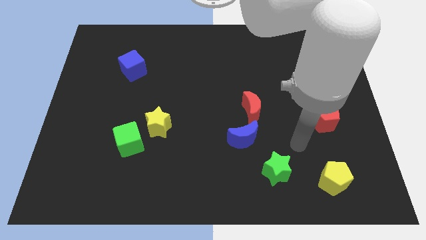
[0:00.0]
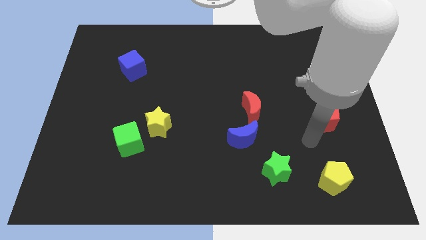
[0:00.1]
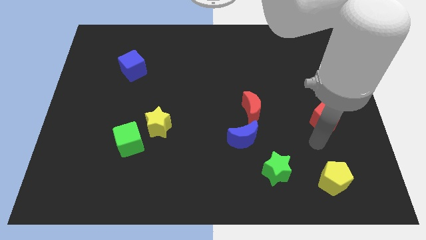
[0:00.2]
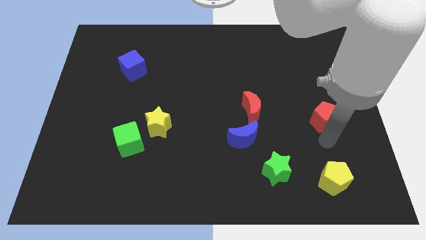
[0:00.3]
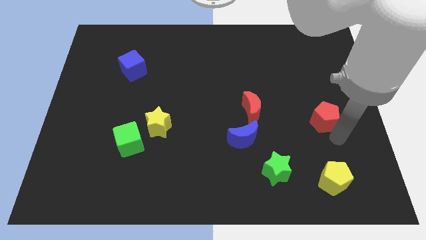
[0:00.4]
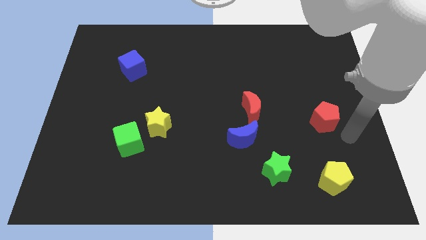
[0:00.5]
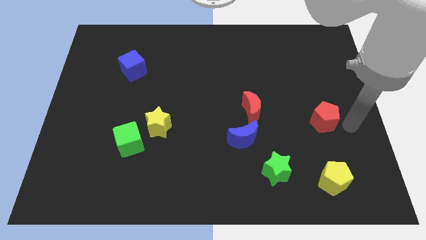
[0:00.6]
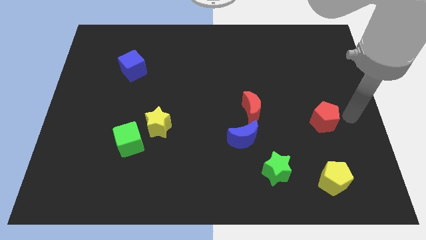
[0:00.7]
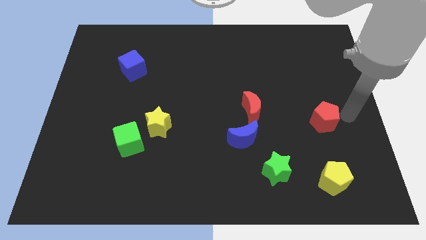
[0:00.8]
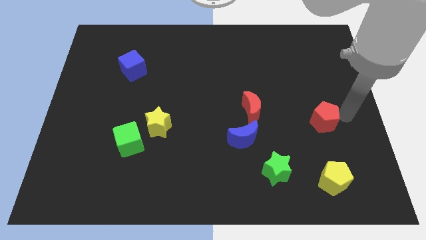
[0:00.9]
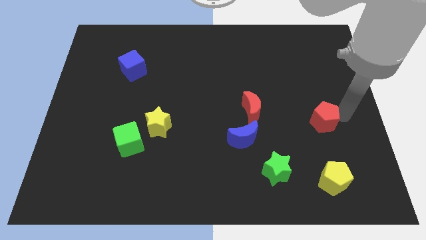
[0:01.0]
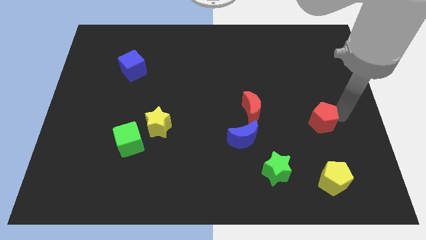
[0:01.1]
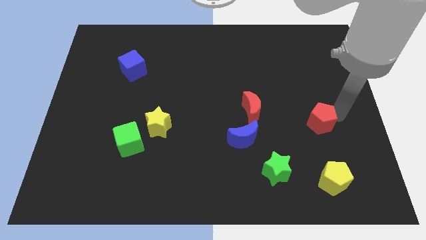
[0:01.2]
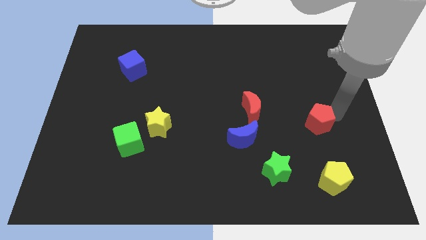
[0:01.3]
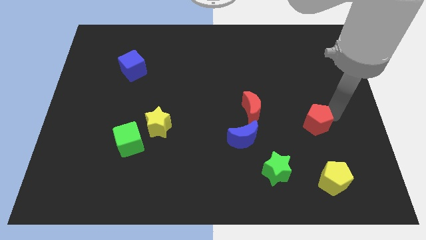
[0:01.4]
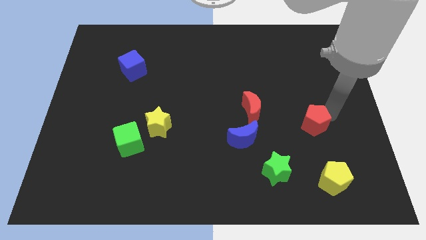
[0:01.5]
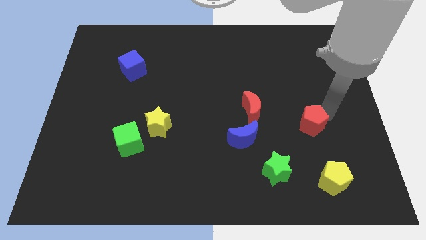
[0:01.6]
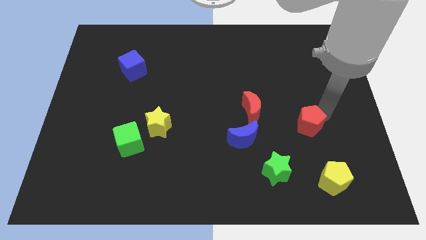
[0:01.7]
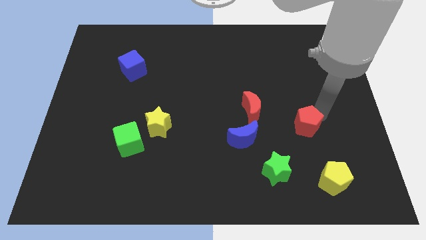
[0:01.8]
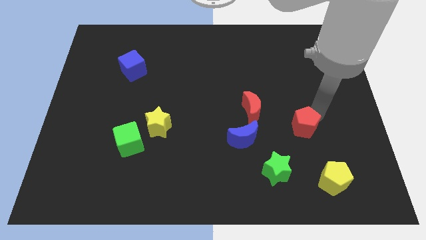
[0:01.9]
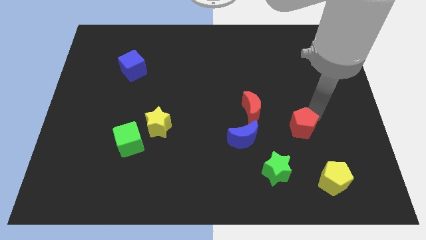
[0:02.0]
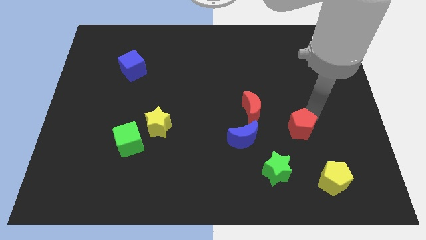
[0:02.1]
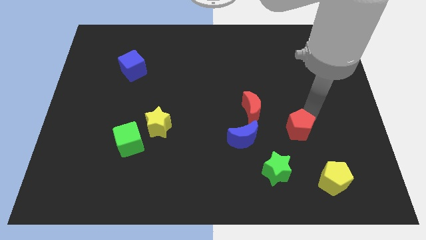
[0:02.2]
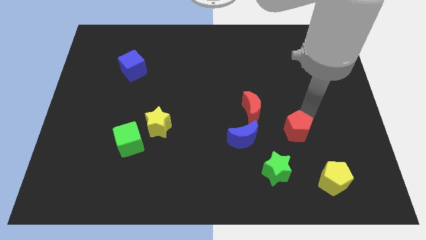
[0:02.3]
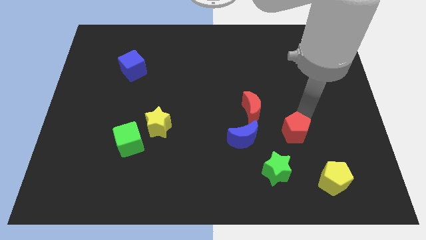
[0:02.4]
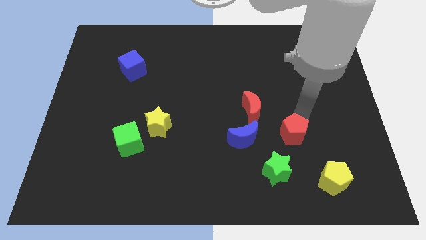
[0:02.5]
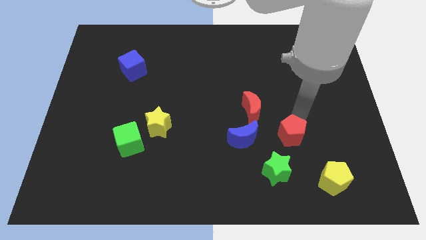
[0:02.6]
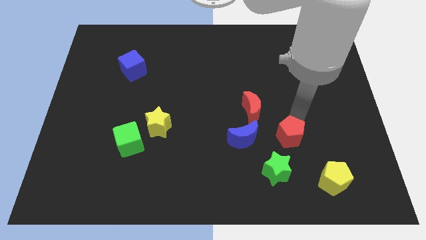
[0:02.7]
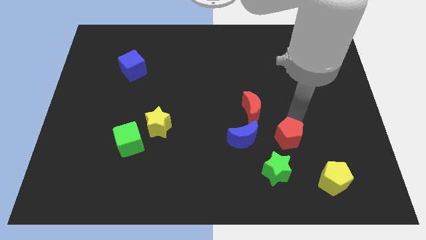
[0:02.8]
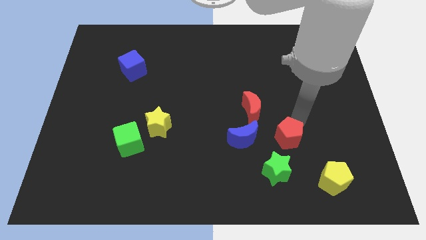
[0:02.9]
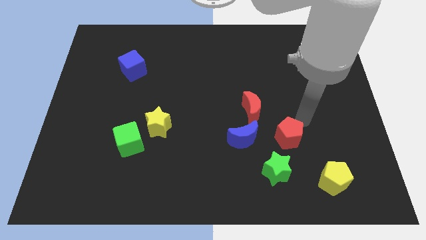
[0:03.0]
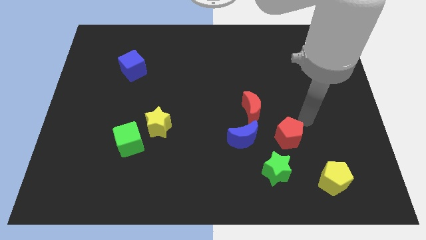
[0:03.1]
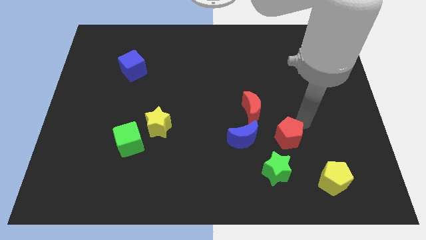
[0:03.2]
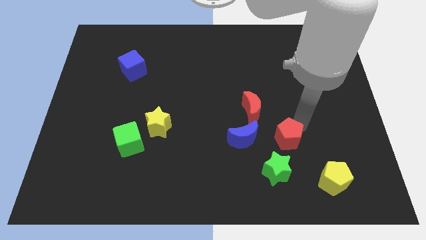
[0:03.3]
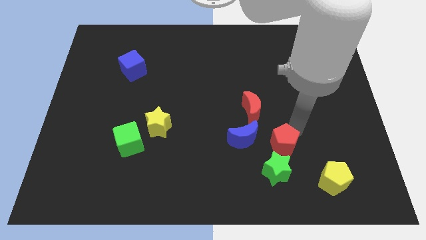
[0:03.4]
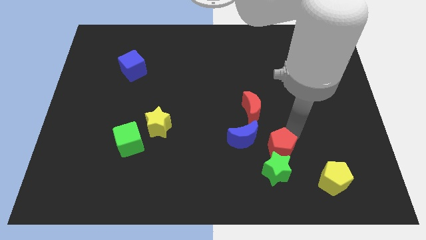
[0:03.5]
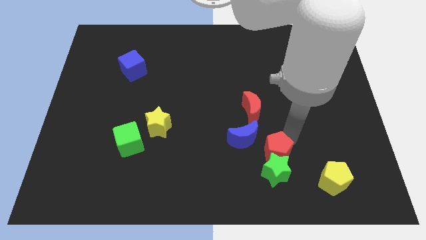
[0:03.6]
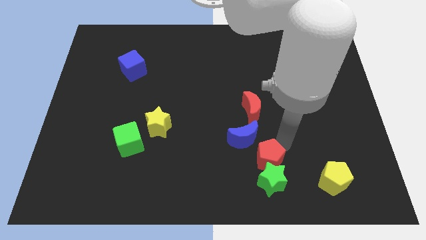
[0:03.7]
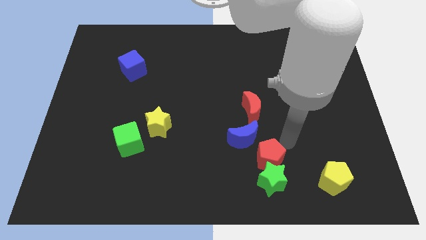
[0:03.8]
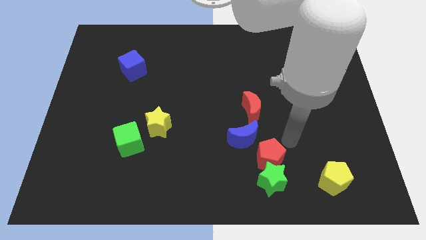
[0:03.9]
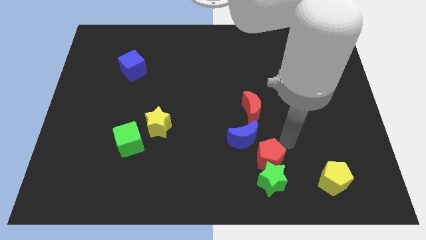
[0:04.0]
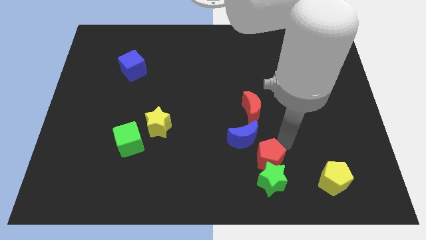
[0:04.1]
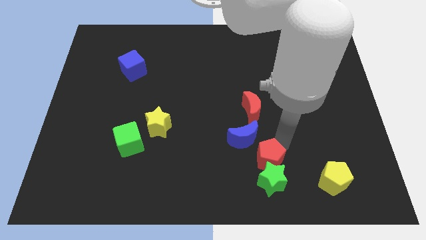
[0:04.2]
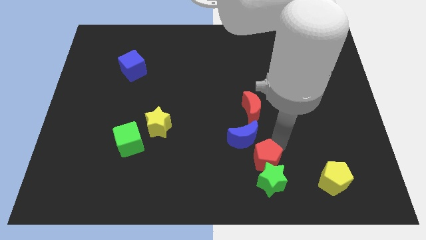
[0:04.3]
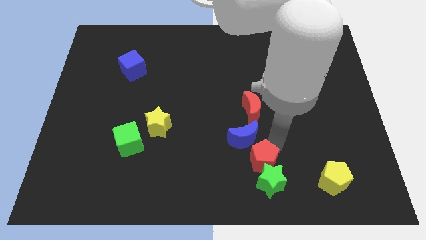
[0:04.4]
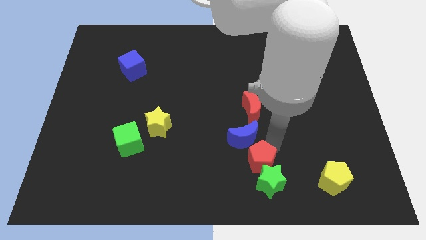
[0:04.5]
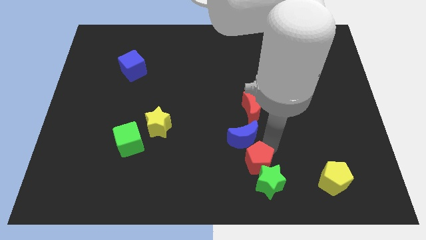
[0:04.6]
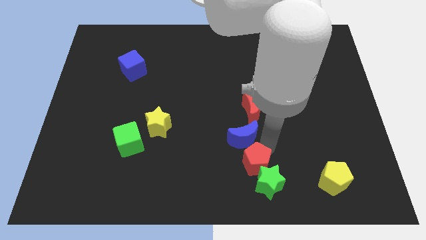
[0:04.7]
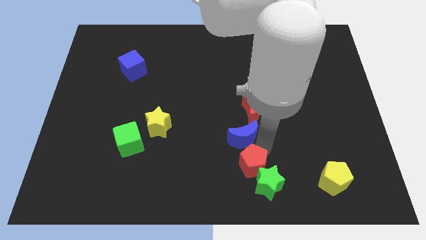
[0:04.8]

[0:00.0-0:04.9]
slide the red pentagon to the bottom side

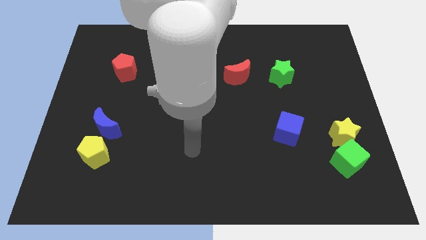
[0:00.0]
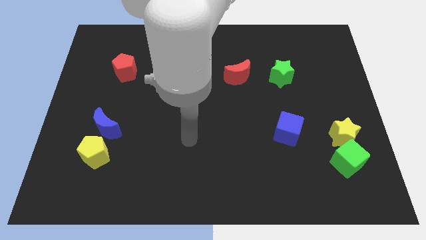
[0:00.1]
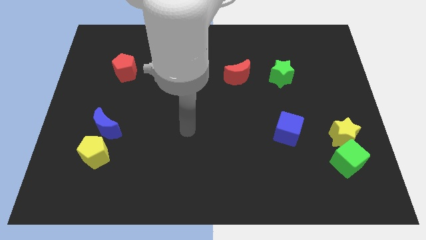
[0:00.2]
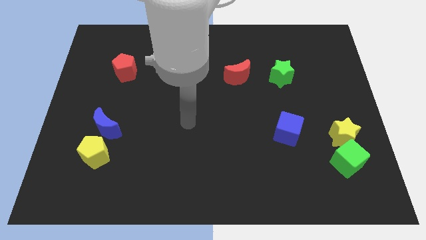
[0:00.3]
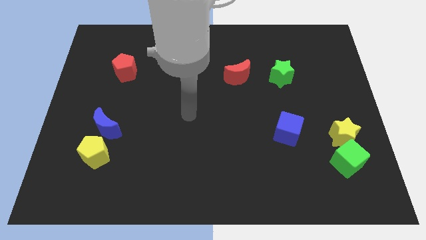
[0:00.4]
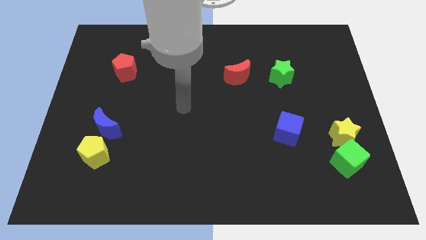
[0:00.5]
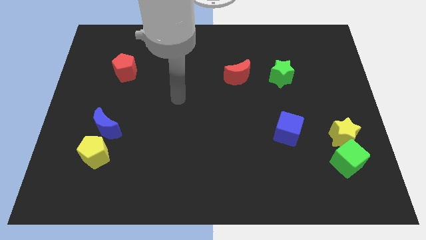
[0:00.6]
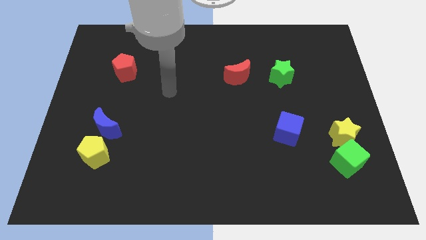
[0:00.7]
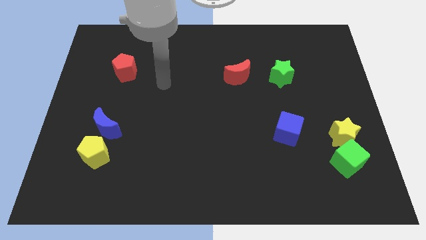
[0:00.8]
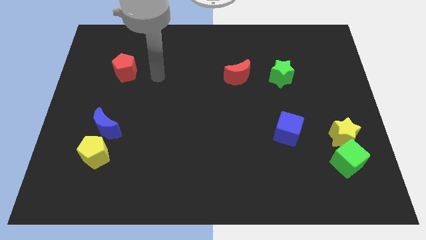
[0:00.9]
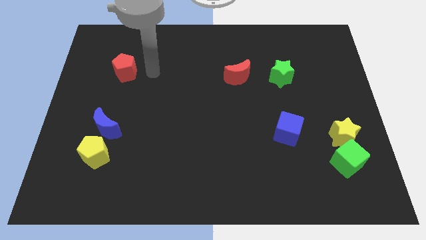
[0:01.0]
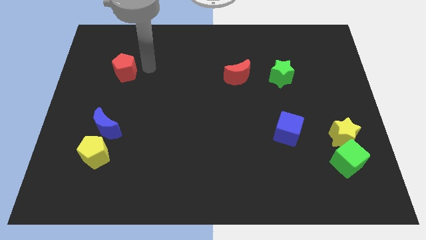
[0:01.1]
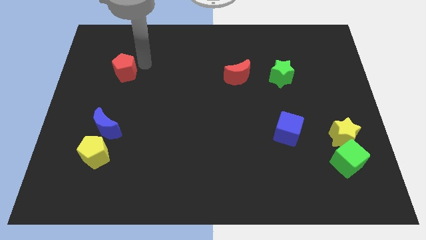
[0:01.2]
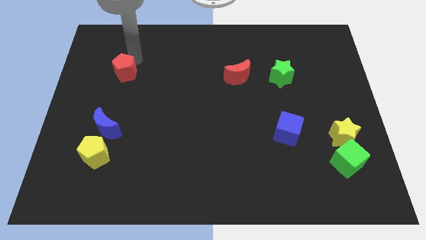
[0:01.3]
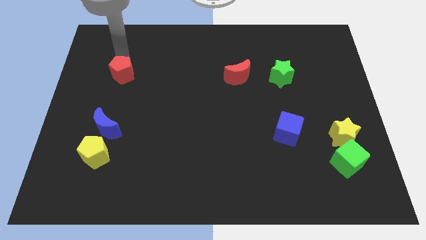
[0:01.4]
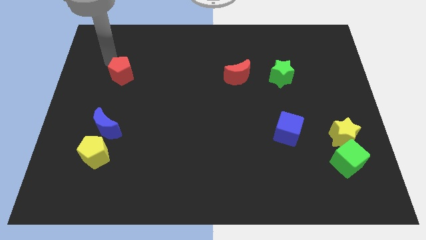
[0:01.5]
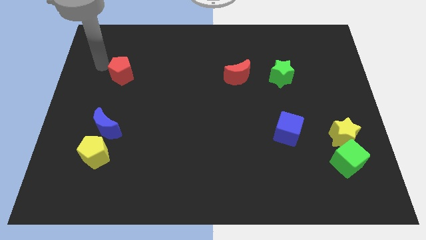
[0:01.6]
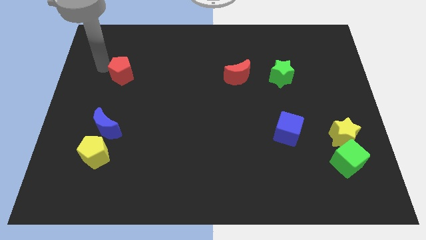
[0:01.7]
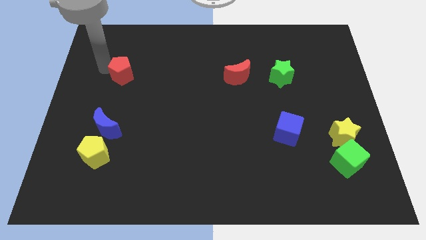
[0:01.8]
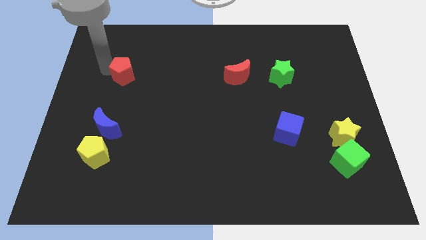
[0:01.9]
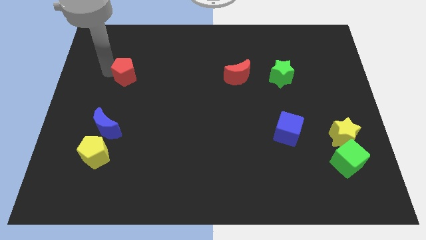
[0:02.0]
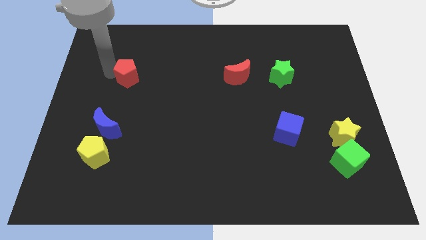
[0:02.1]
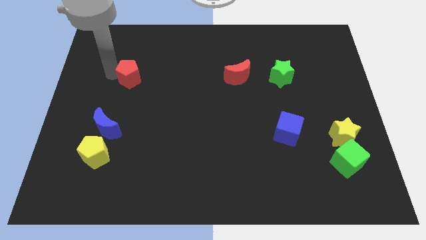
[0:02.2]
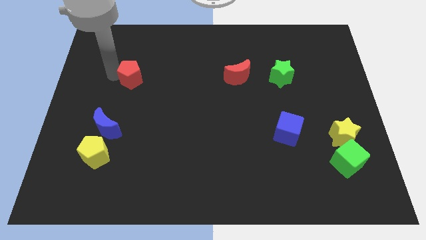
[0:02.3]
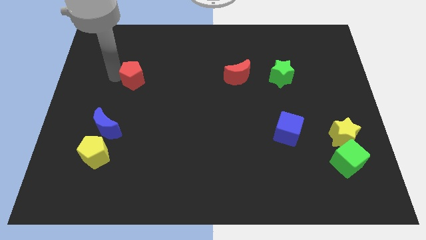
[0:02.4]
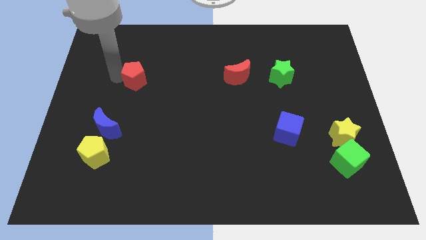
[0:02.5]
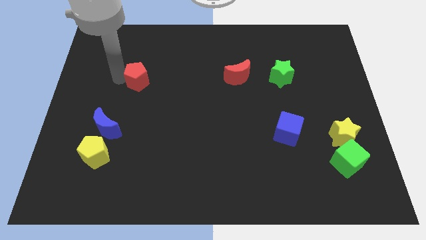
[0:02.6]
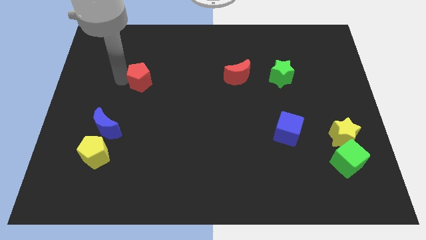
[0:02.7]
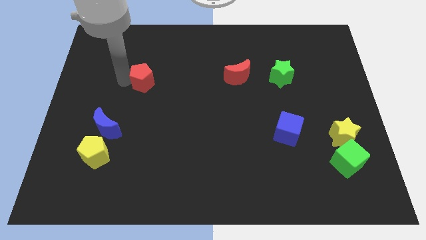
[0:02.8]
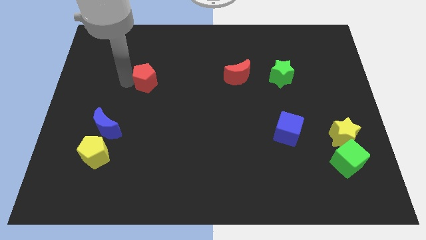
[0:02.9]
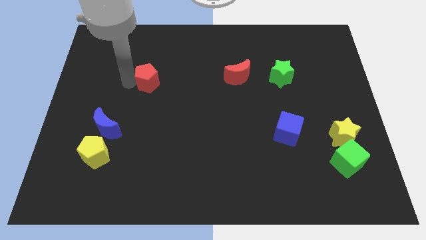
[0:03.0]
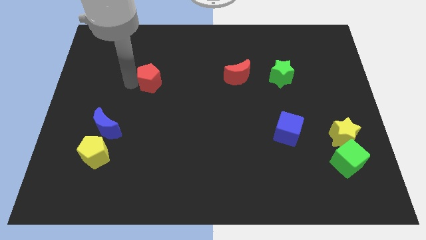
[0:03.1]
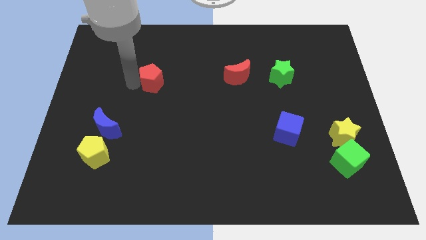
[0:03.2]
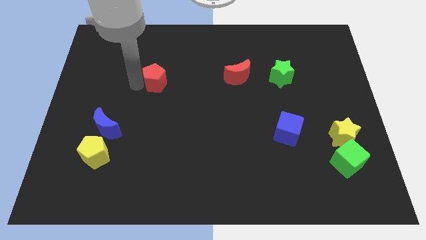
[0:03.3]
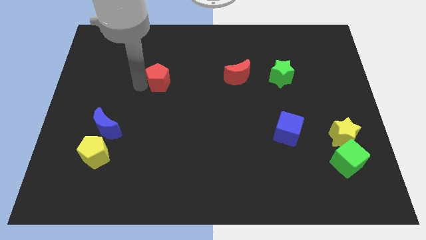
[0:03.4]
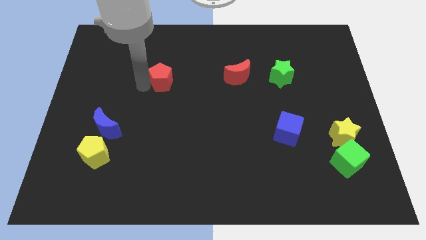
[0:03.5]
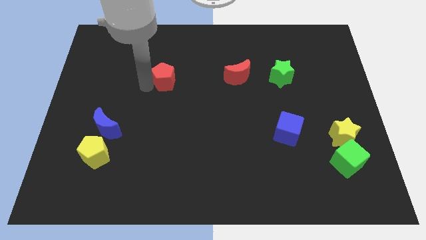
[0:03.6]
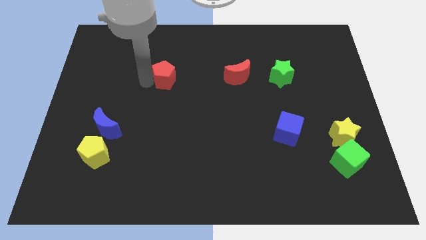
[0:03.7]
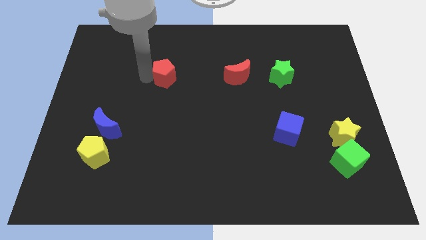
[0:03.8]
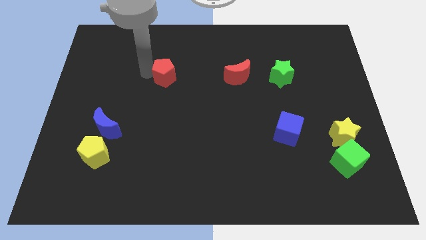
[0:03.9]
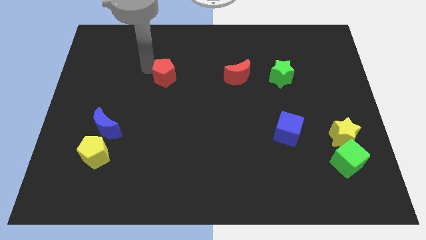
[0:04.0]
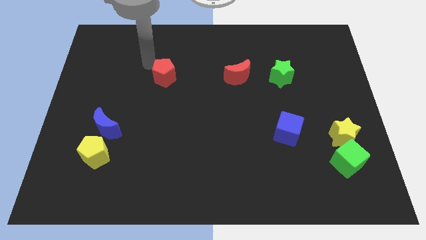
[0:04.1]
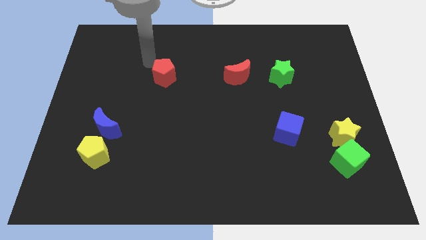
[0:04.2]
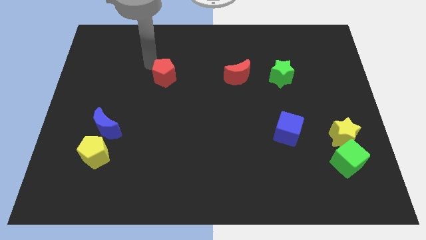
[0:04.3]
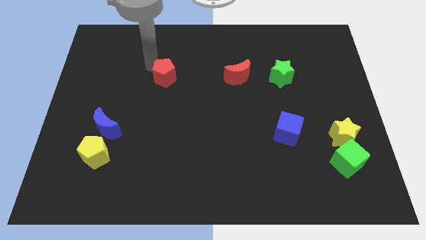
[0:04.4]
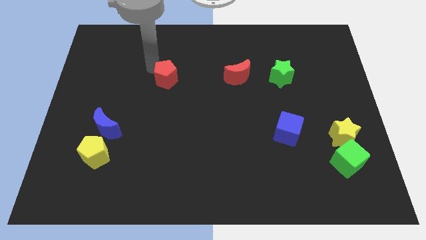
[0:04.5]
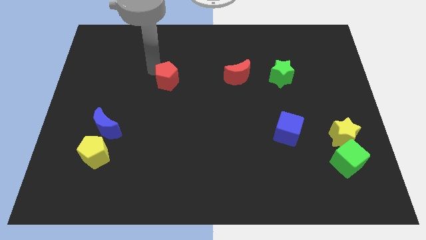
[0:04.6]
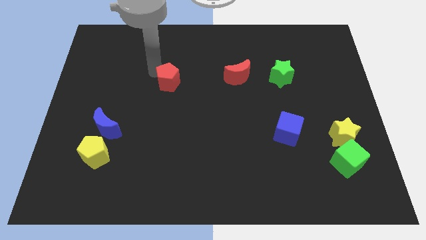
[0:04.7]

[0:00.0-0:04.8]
push the red pentagon to the center
